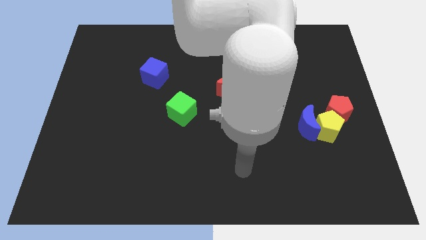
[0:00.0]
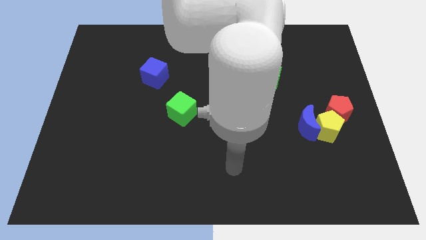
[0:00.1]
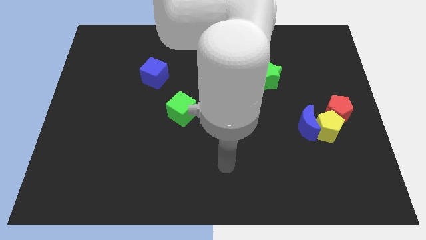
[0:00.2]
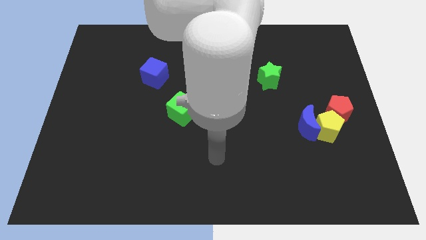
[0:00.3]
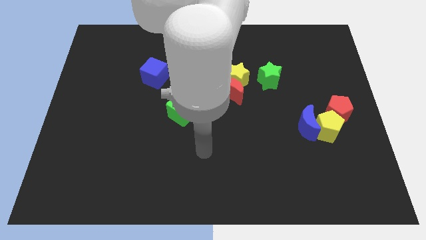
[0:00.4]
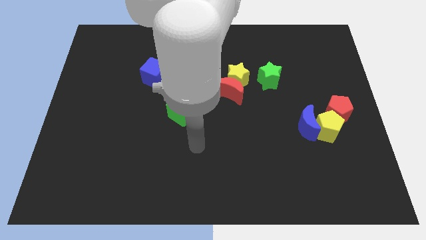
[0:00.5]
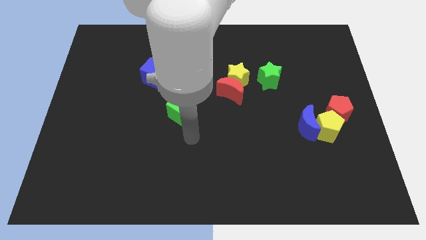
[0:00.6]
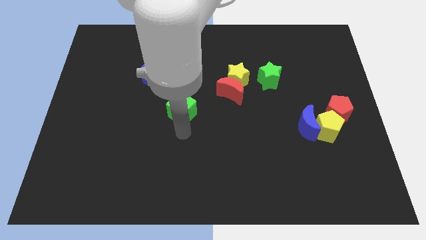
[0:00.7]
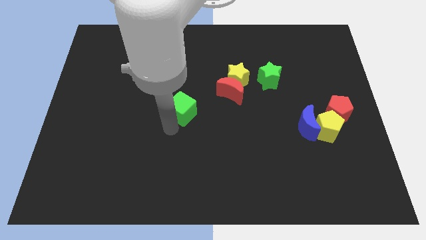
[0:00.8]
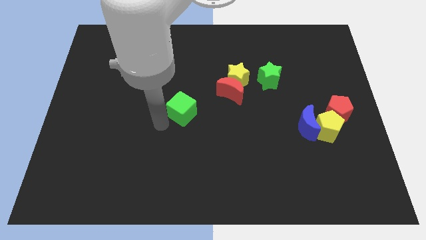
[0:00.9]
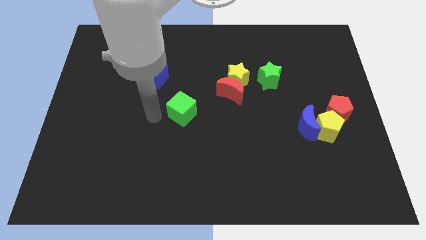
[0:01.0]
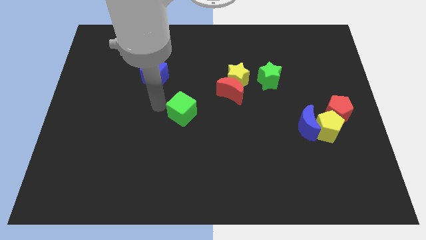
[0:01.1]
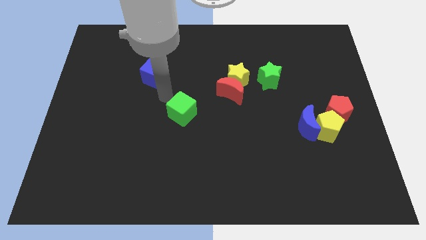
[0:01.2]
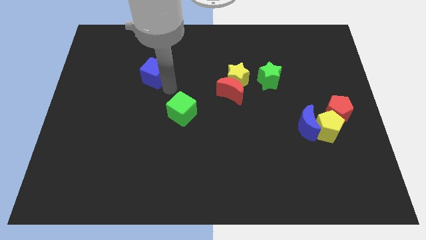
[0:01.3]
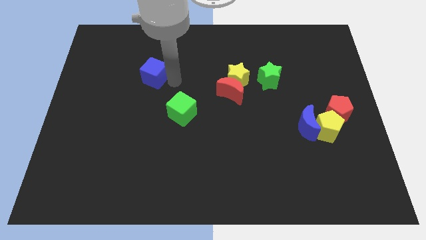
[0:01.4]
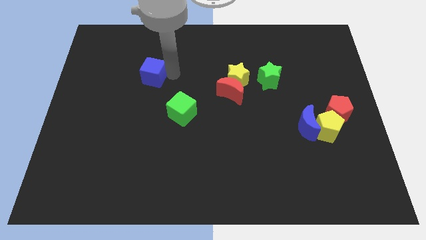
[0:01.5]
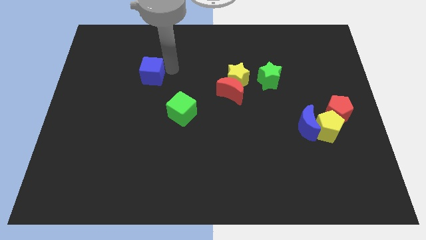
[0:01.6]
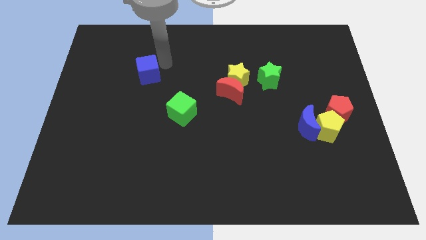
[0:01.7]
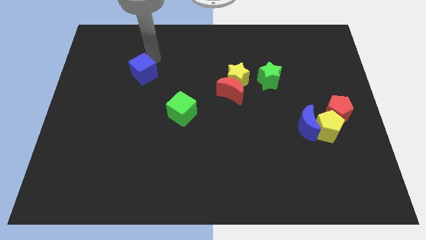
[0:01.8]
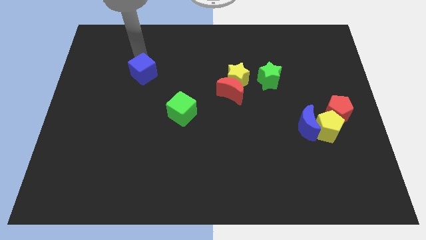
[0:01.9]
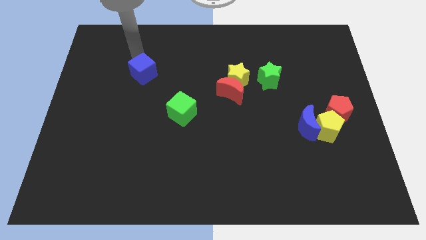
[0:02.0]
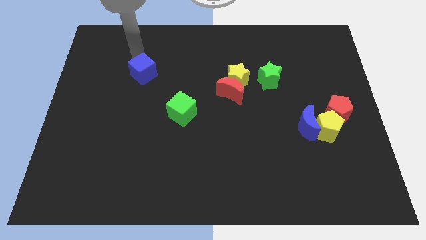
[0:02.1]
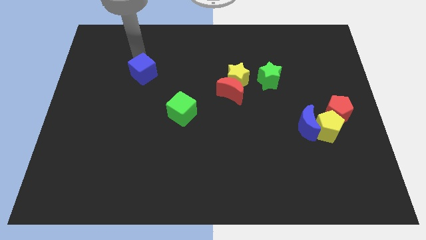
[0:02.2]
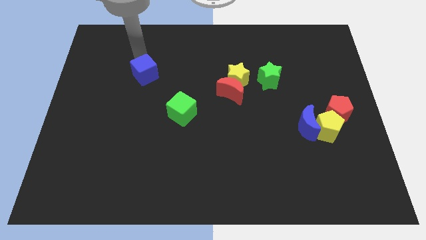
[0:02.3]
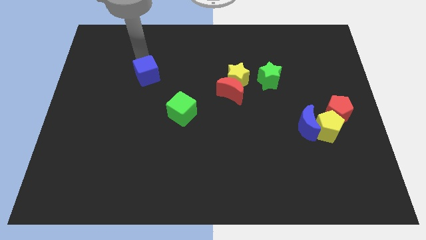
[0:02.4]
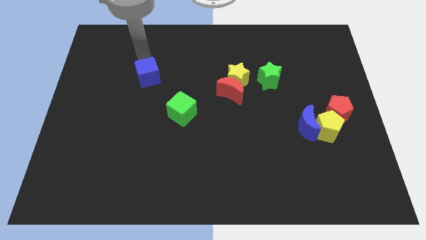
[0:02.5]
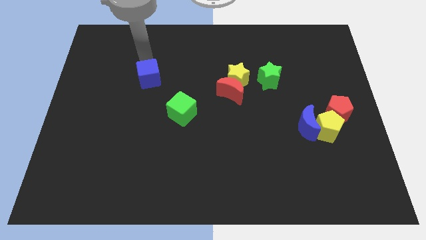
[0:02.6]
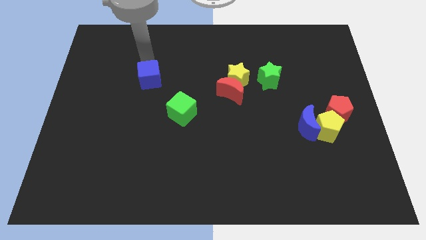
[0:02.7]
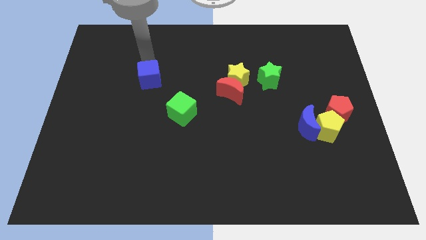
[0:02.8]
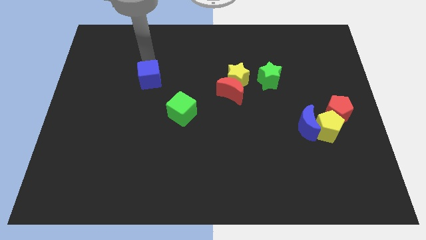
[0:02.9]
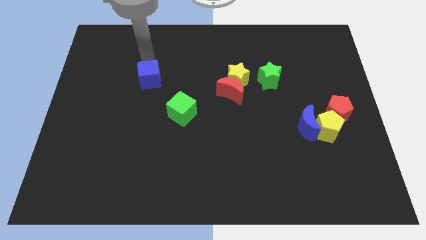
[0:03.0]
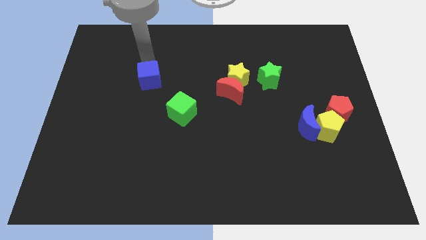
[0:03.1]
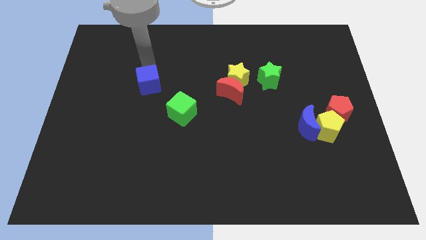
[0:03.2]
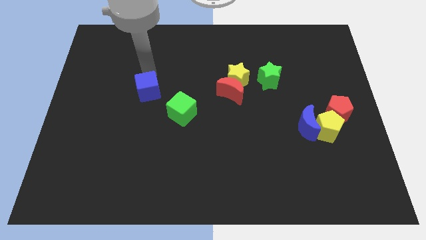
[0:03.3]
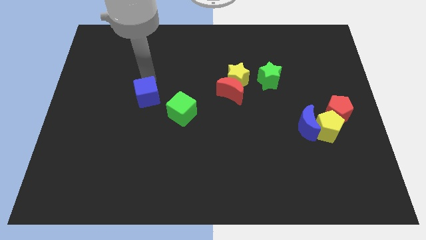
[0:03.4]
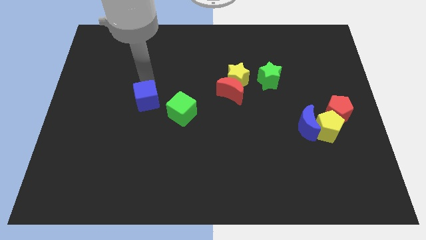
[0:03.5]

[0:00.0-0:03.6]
slightly slide the blue cube down

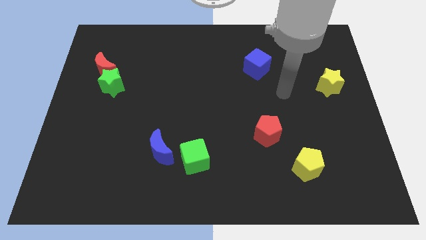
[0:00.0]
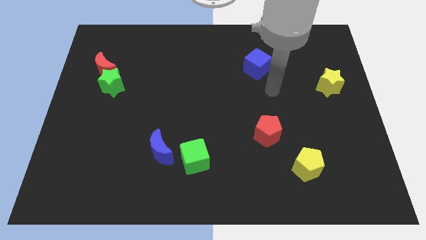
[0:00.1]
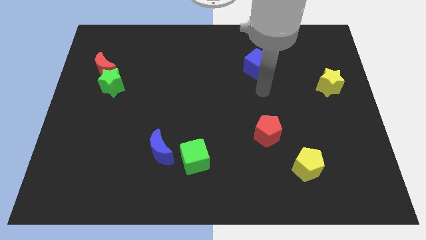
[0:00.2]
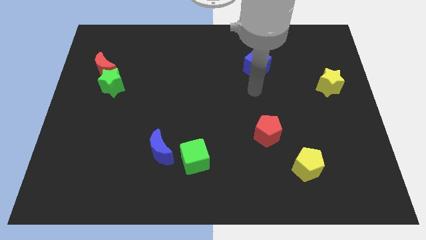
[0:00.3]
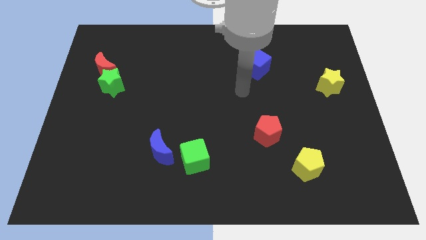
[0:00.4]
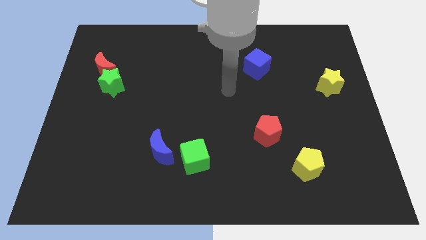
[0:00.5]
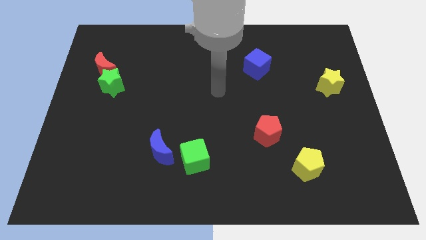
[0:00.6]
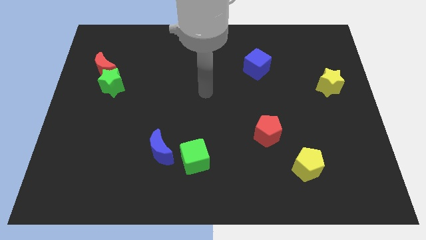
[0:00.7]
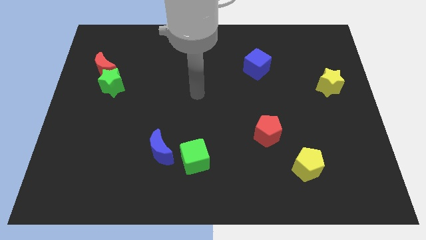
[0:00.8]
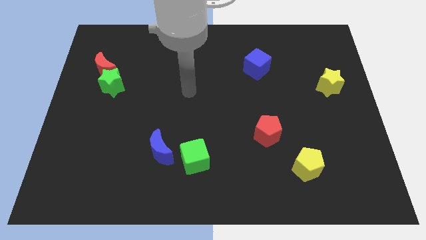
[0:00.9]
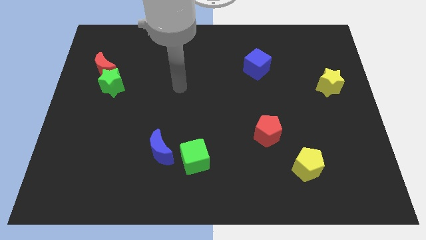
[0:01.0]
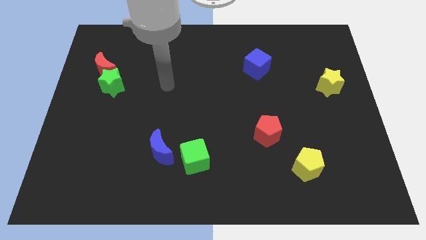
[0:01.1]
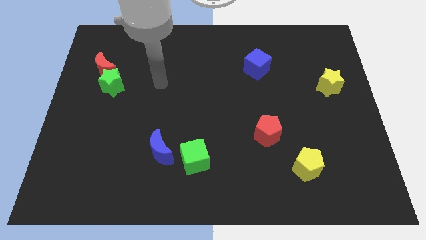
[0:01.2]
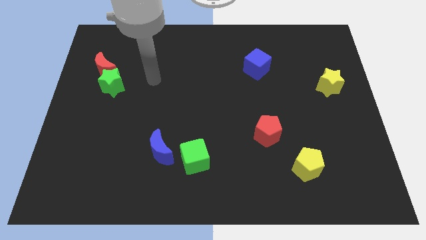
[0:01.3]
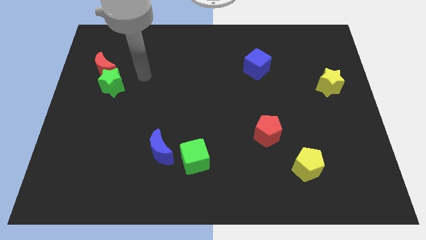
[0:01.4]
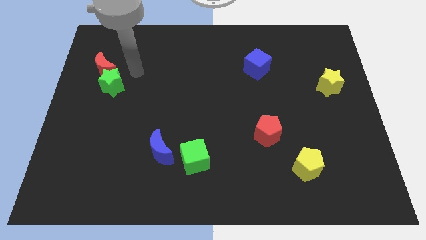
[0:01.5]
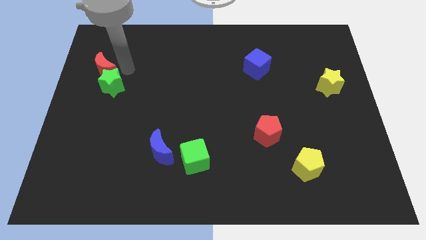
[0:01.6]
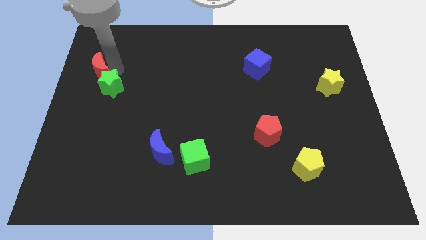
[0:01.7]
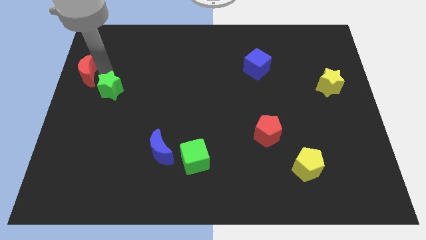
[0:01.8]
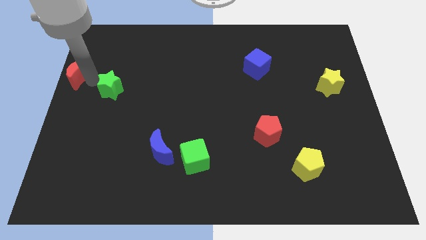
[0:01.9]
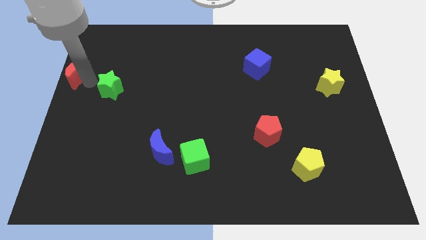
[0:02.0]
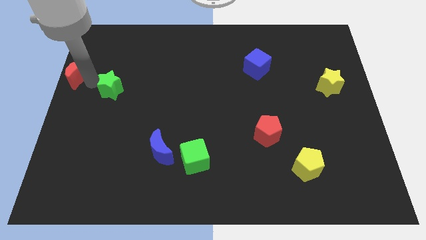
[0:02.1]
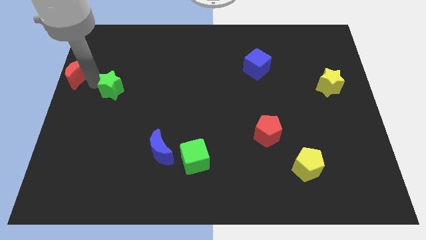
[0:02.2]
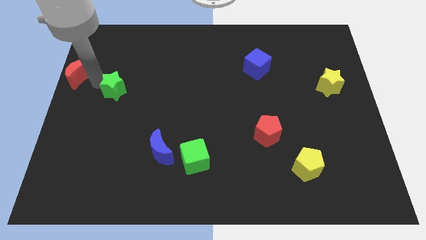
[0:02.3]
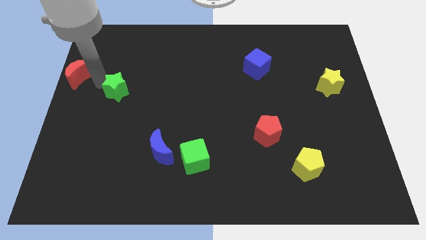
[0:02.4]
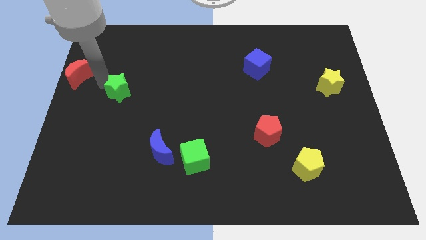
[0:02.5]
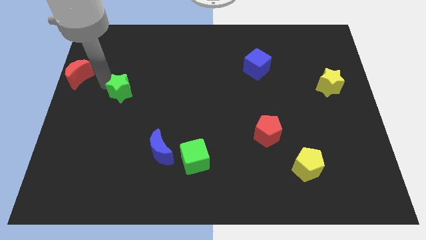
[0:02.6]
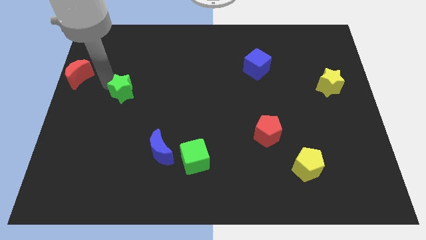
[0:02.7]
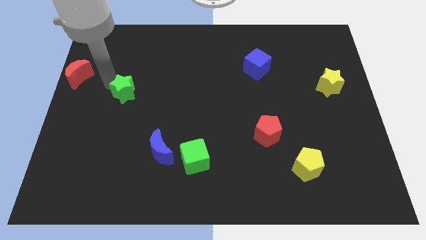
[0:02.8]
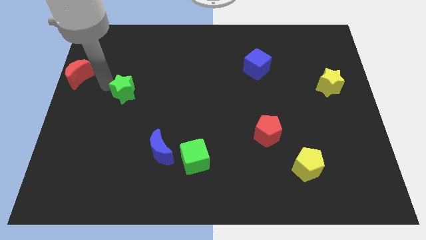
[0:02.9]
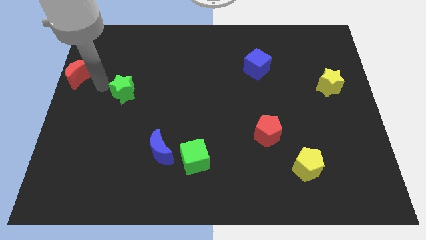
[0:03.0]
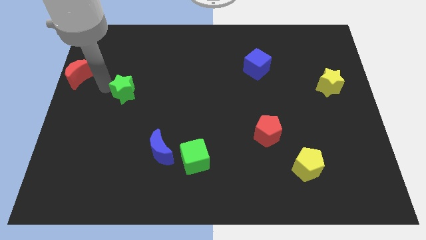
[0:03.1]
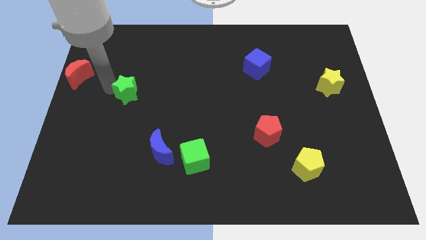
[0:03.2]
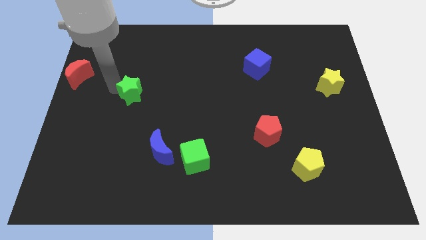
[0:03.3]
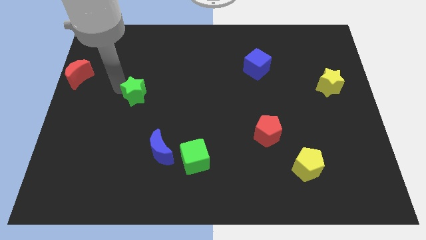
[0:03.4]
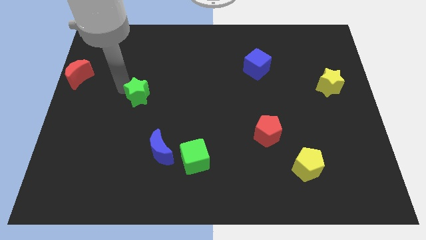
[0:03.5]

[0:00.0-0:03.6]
slightly push the green star diagonally downwards and right

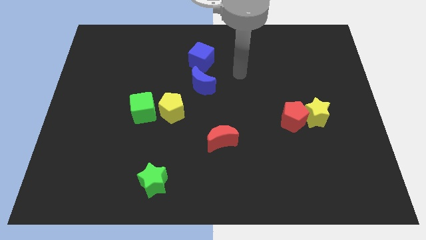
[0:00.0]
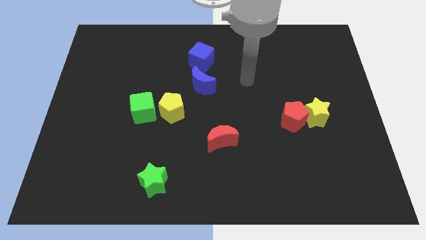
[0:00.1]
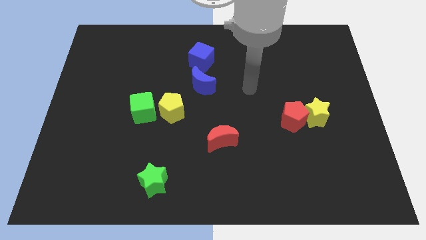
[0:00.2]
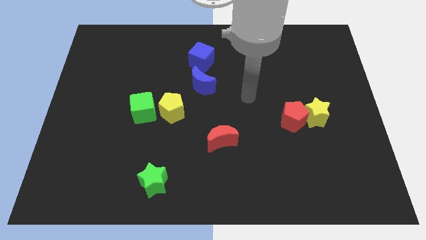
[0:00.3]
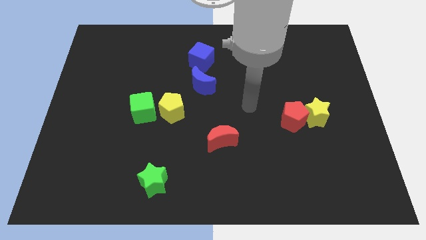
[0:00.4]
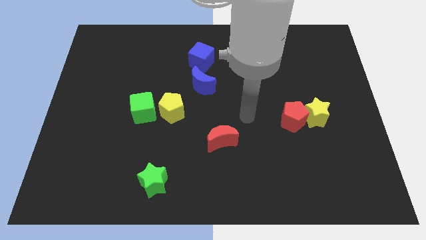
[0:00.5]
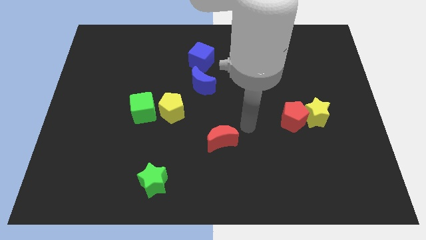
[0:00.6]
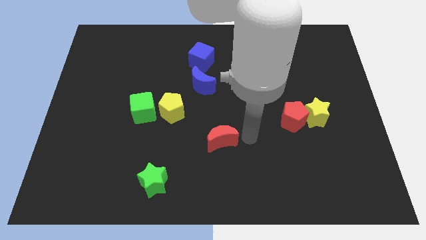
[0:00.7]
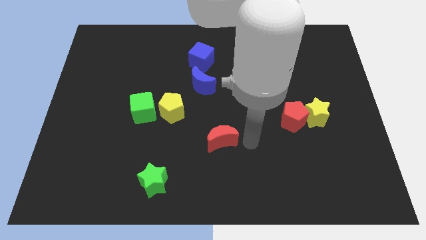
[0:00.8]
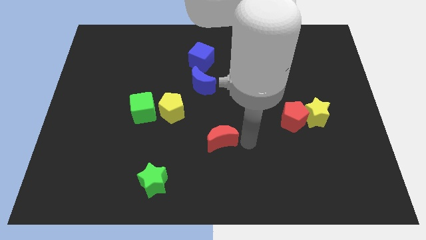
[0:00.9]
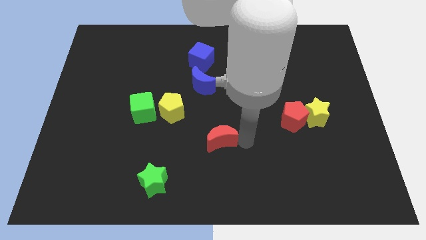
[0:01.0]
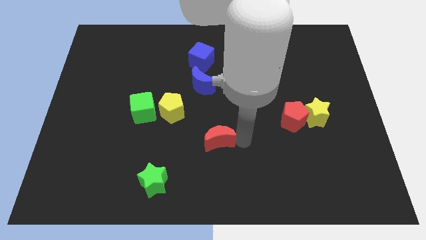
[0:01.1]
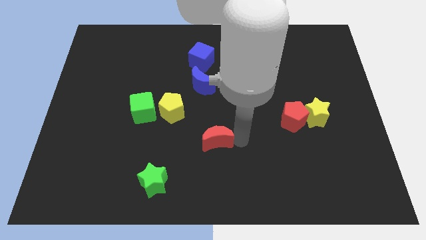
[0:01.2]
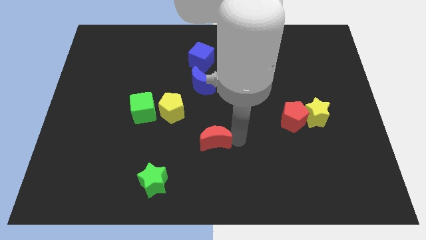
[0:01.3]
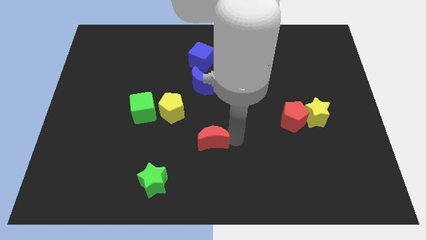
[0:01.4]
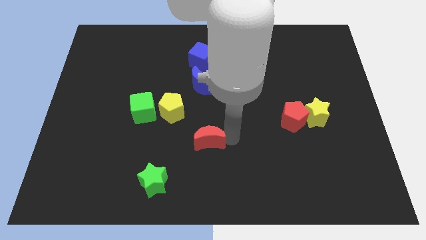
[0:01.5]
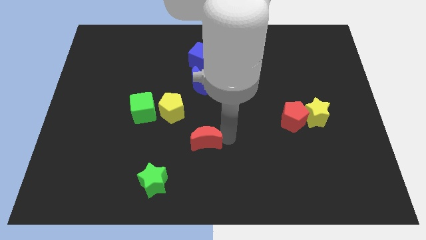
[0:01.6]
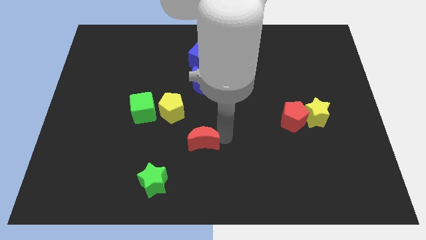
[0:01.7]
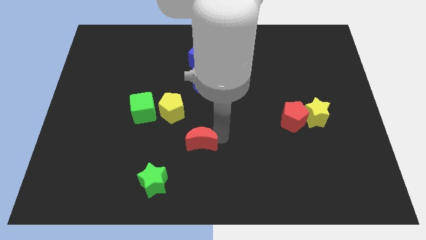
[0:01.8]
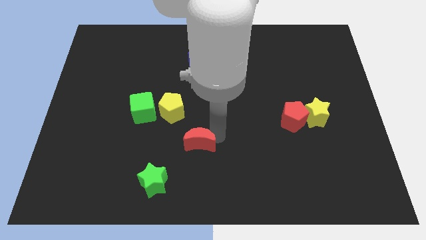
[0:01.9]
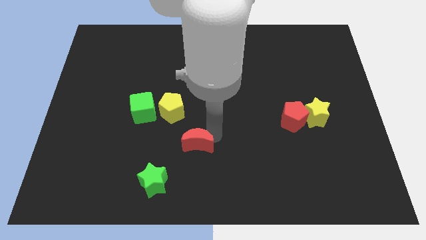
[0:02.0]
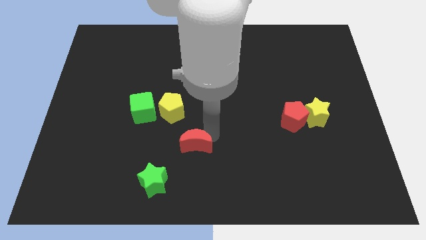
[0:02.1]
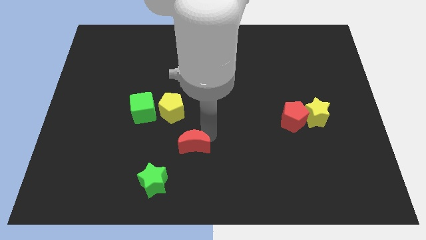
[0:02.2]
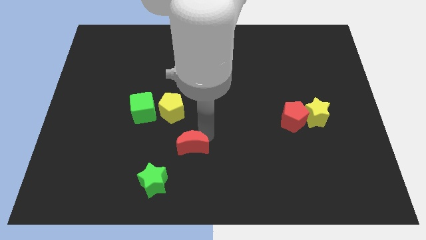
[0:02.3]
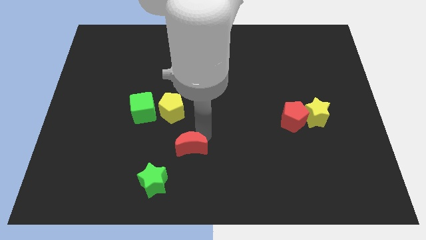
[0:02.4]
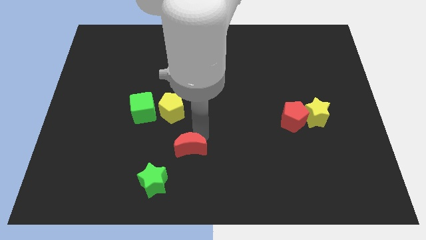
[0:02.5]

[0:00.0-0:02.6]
slide the red moon to the left slightly
